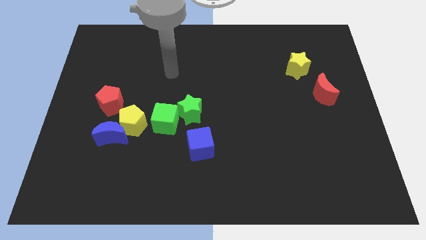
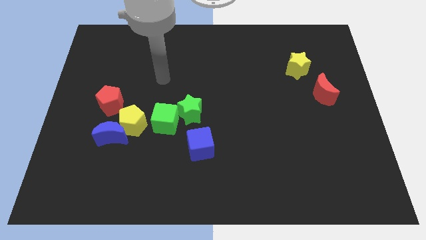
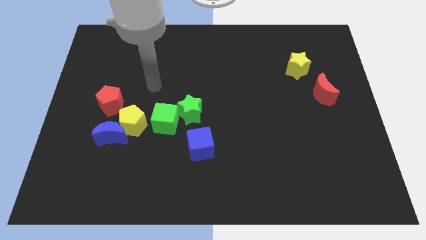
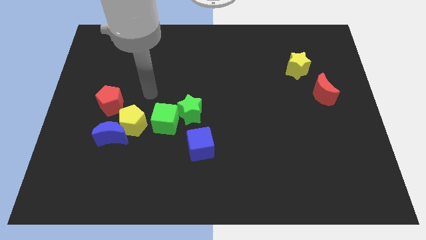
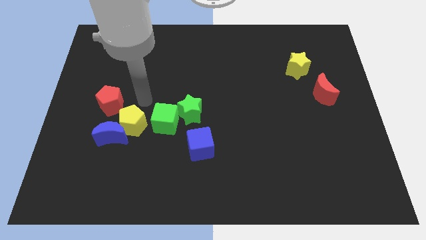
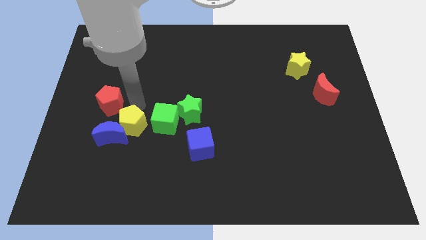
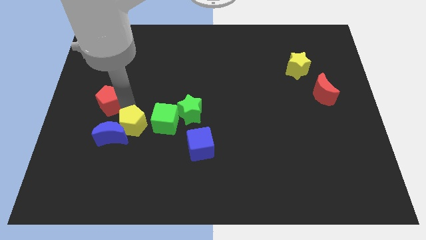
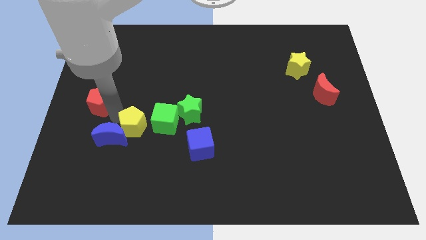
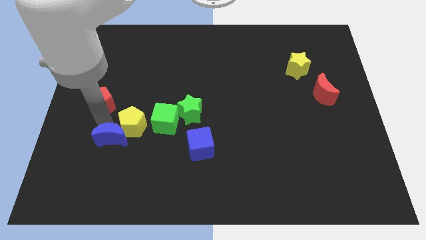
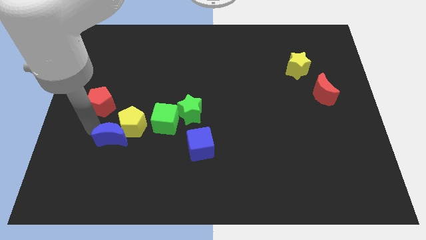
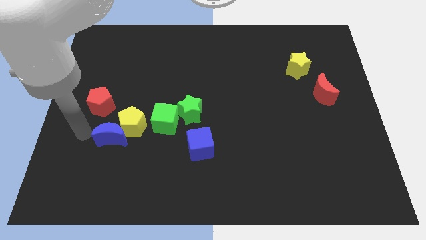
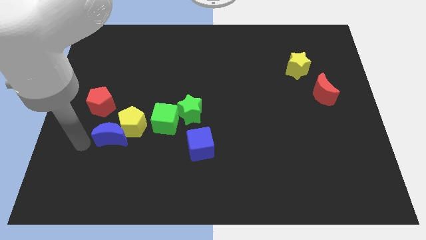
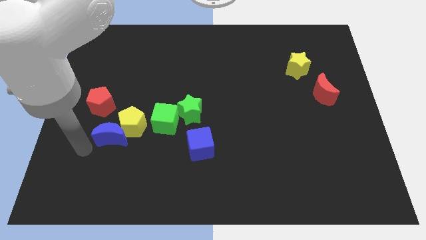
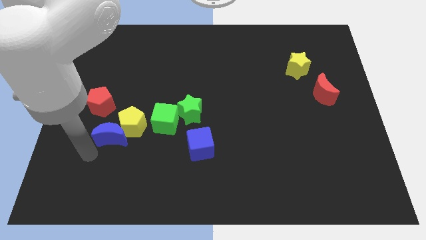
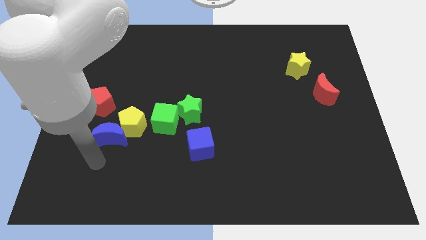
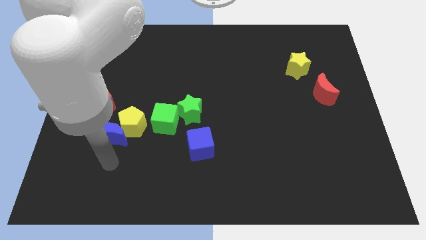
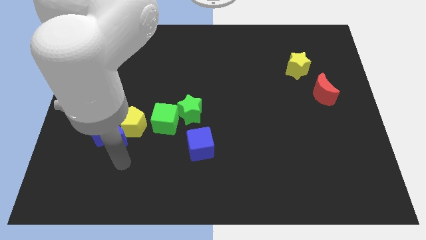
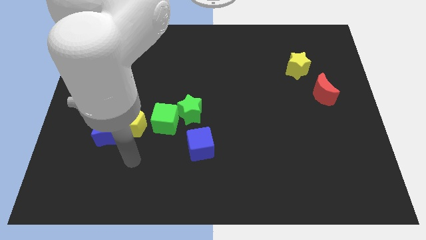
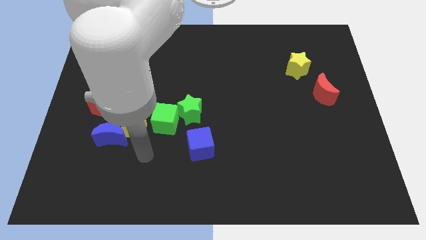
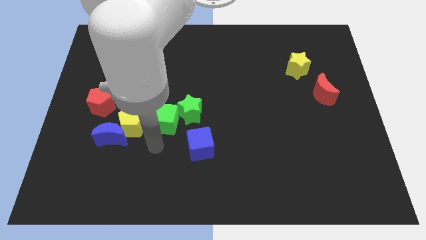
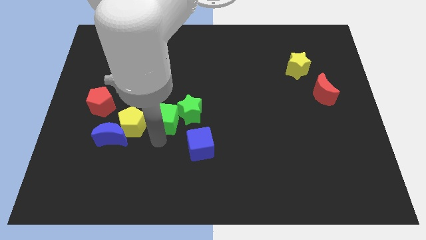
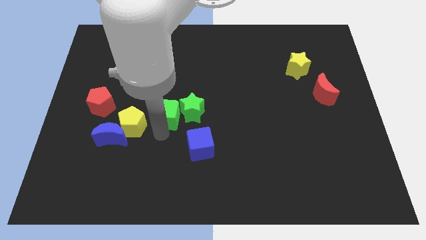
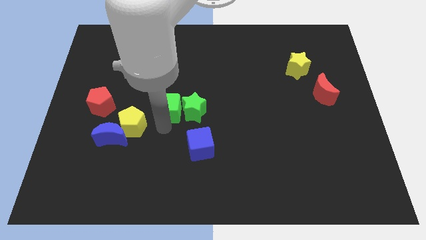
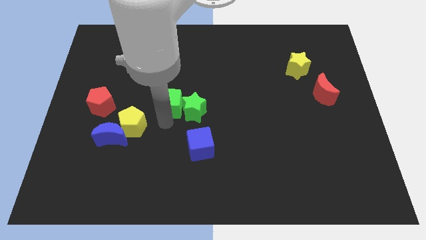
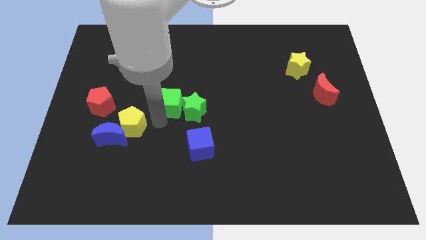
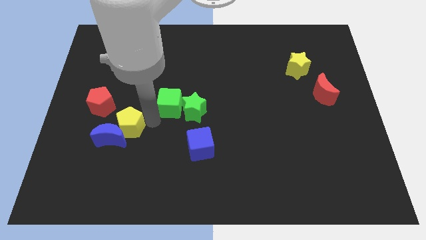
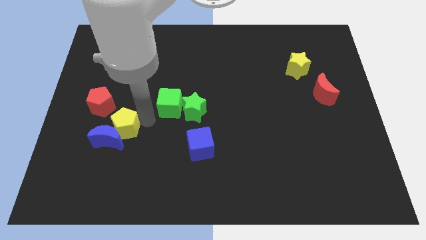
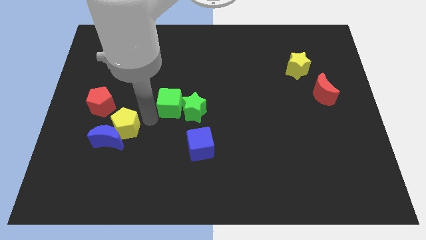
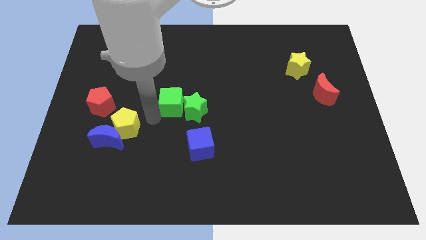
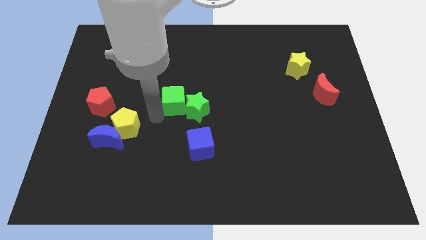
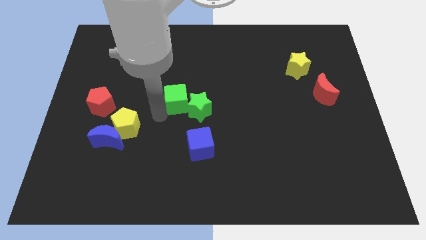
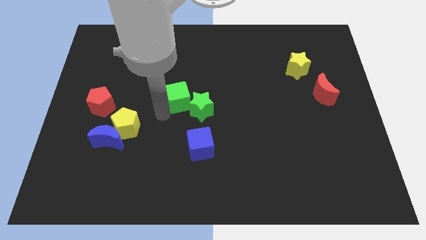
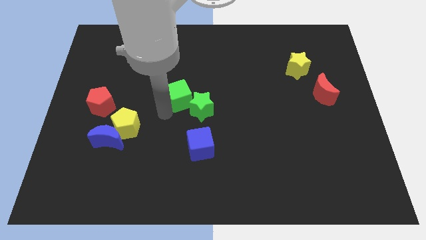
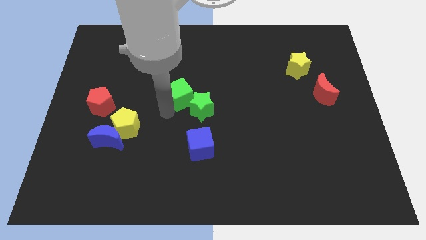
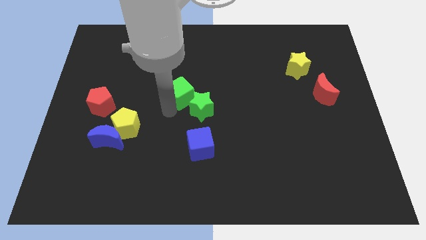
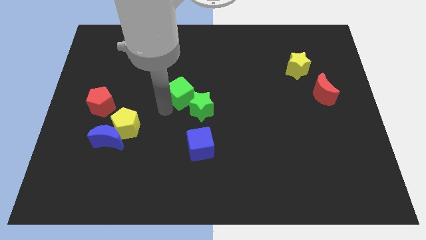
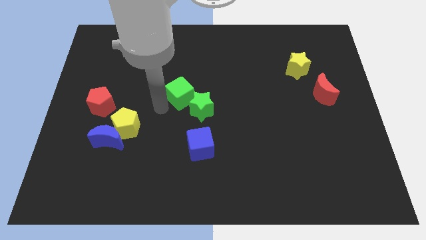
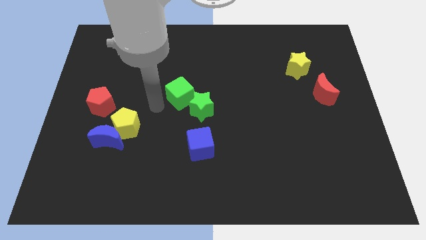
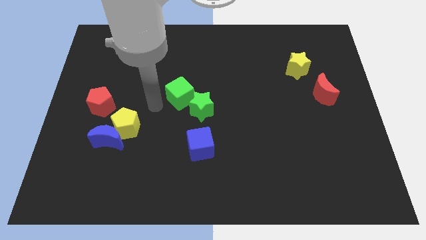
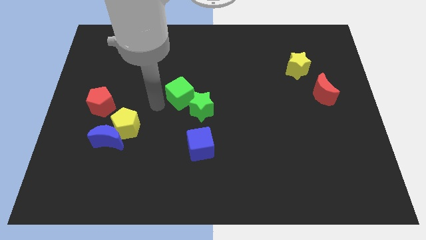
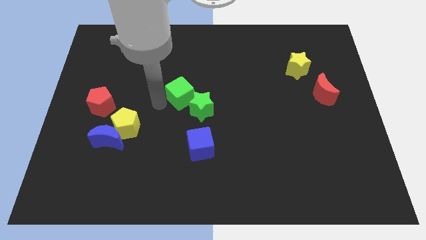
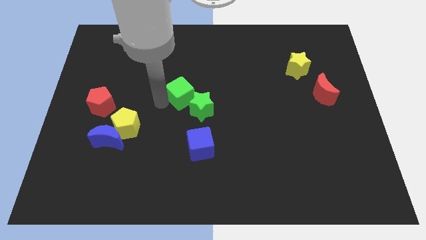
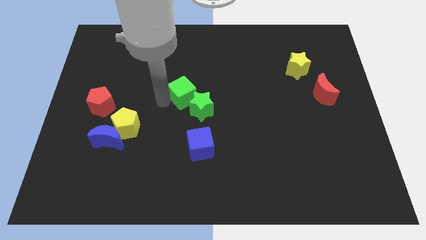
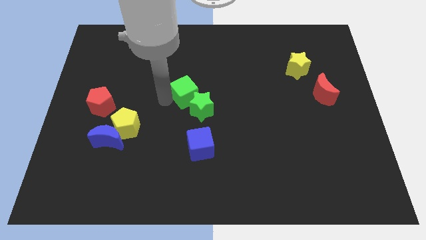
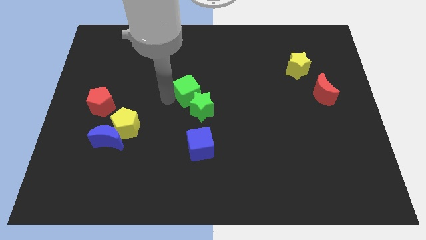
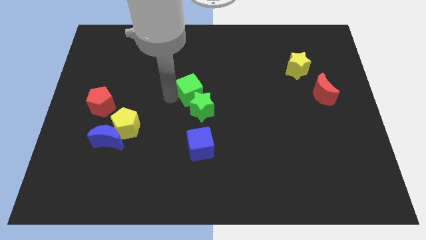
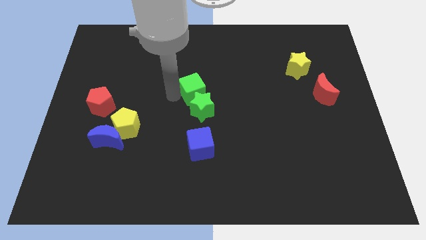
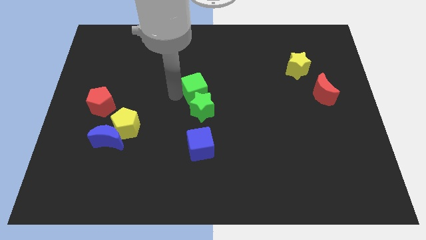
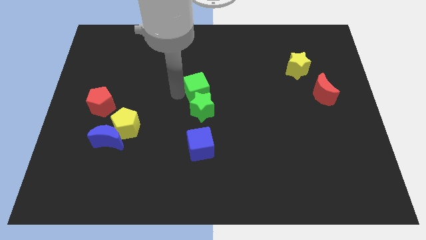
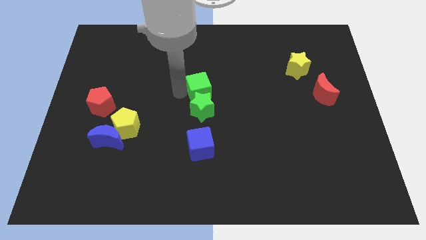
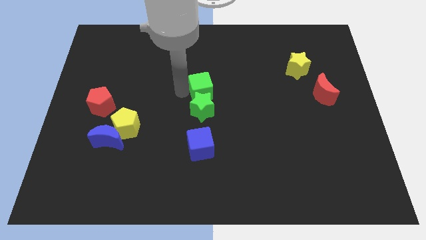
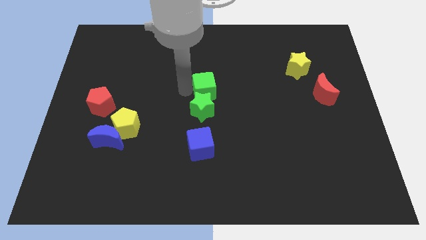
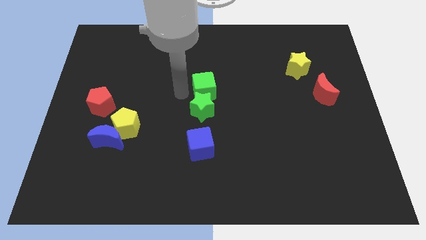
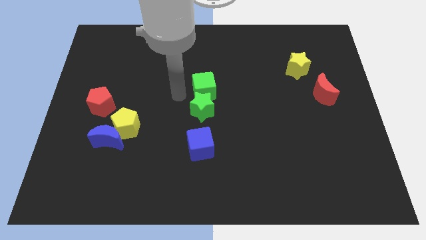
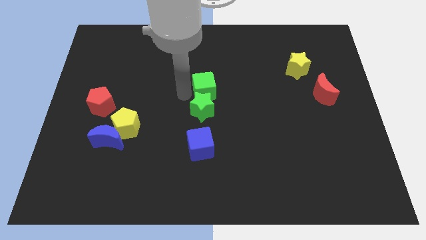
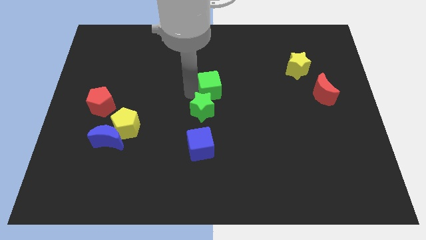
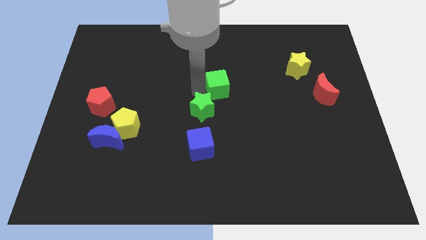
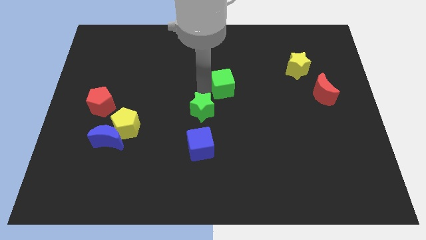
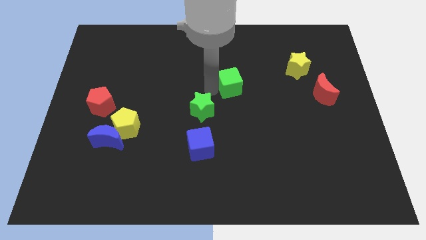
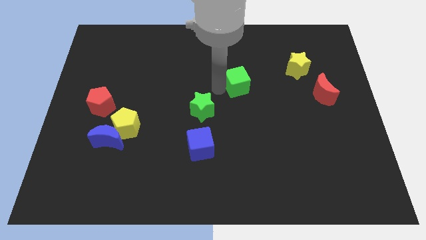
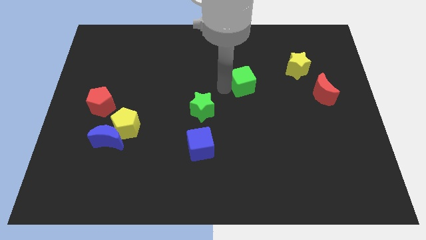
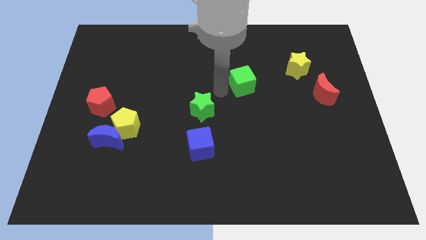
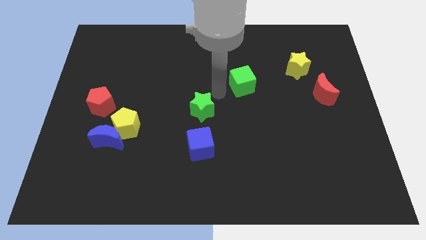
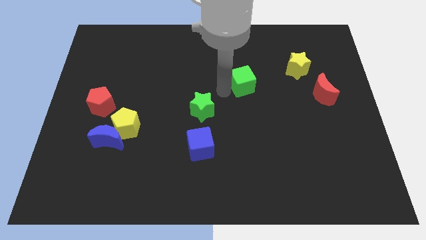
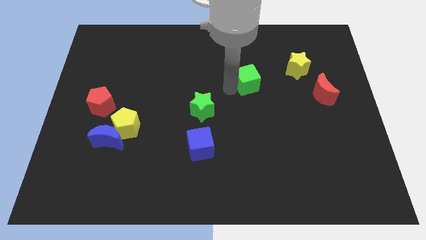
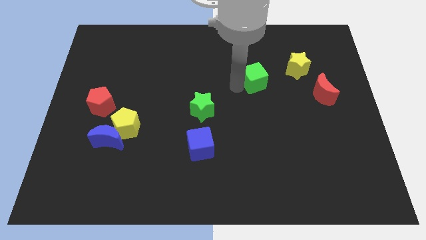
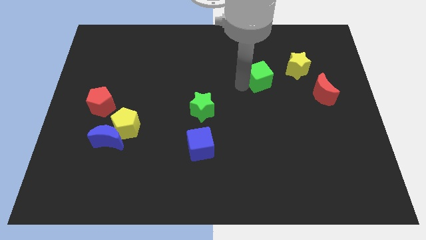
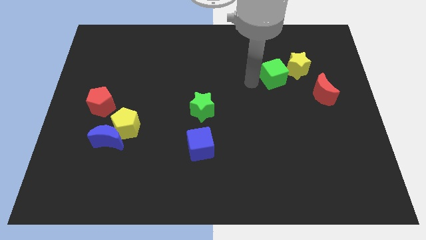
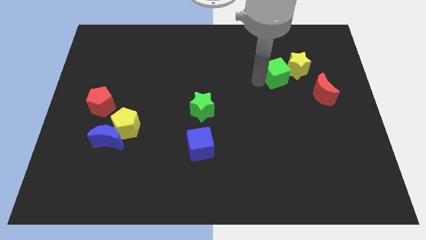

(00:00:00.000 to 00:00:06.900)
push the green cube to the yellow star
